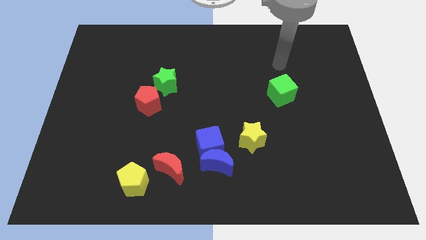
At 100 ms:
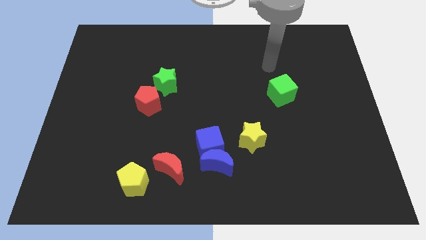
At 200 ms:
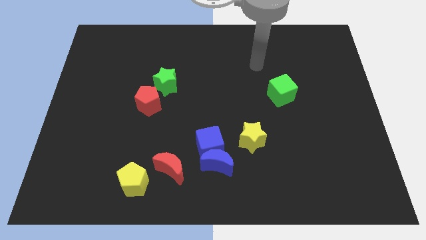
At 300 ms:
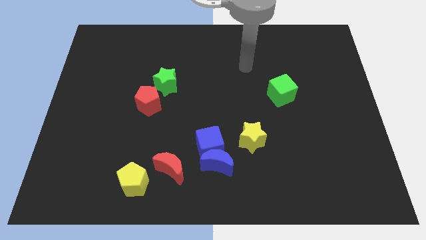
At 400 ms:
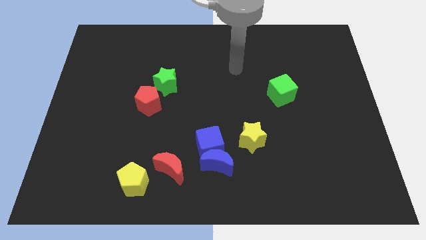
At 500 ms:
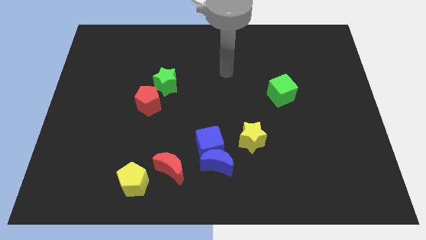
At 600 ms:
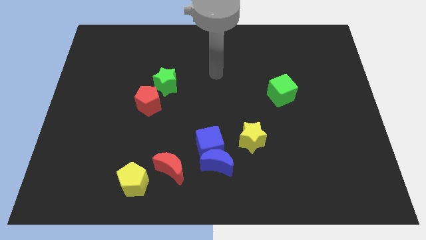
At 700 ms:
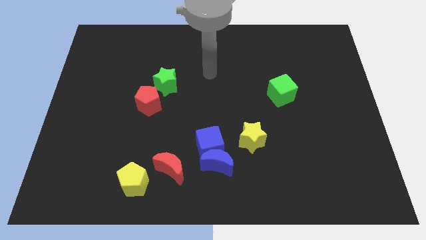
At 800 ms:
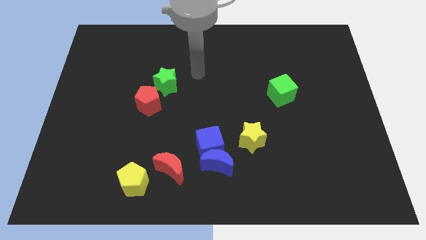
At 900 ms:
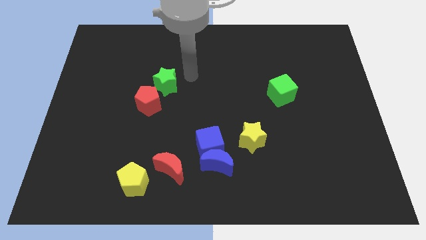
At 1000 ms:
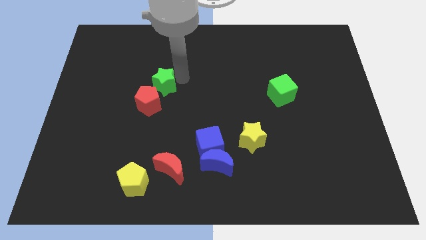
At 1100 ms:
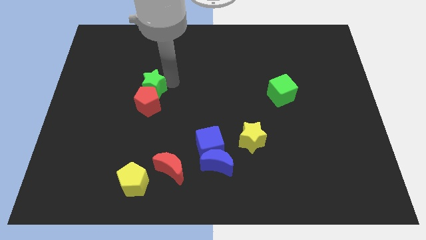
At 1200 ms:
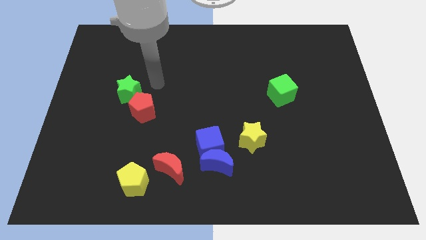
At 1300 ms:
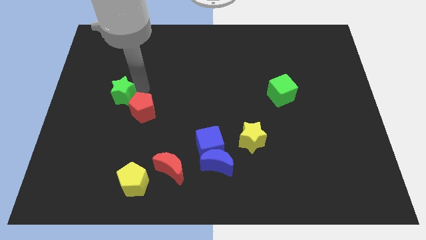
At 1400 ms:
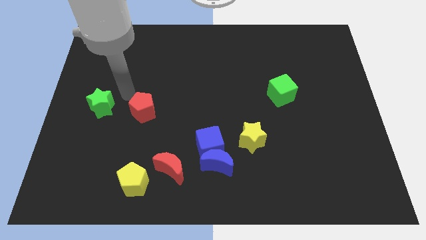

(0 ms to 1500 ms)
pull the red pentagon apart from the green star

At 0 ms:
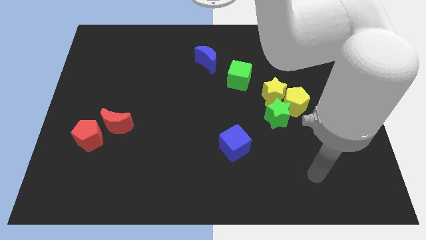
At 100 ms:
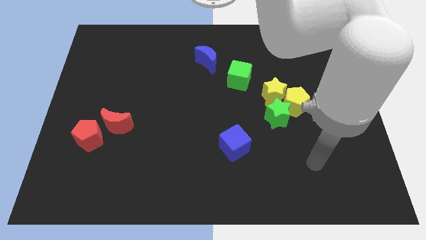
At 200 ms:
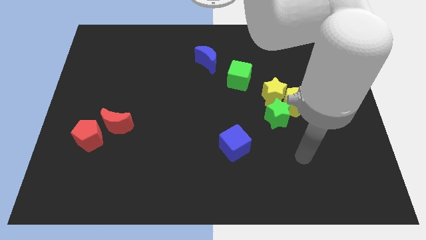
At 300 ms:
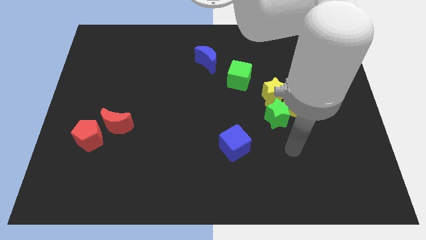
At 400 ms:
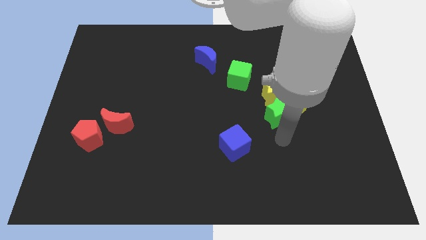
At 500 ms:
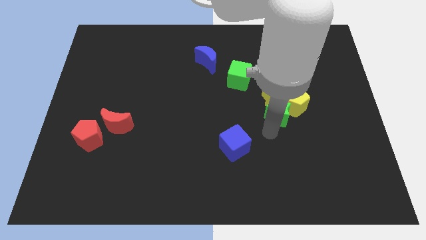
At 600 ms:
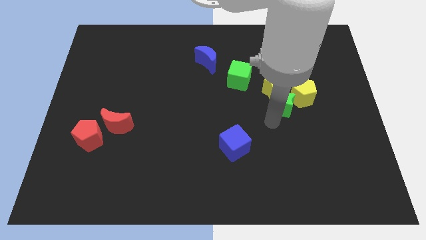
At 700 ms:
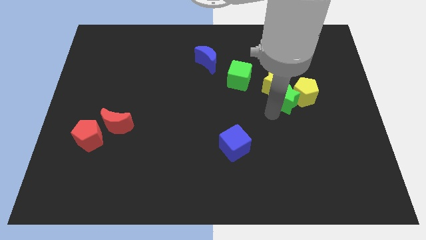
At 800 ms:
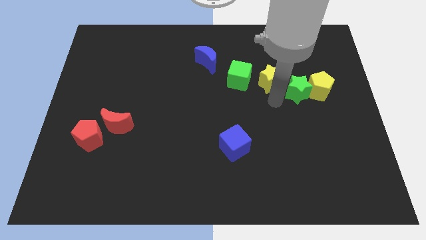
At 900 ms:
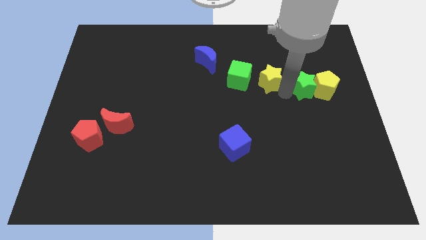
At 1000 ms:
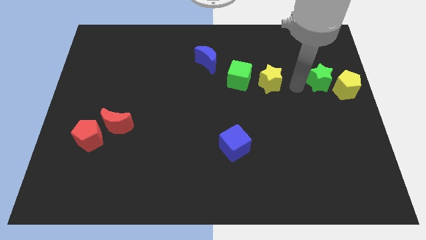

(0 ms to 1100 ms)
separate the yellow pentagon from the yellow star and green star

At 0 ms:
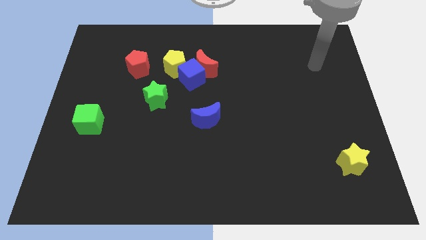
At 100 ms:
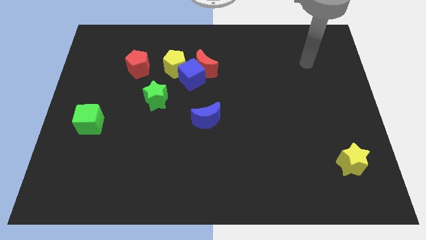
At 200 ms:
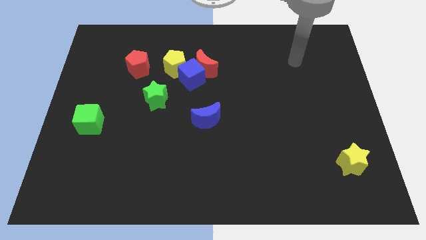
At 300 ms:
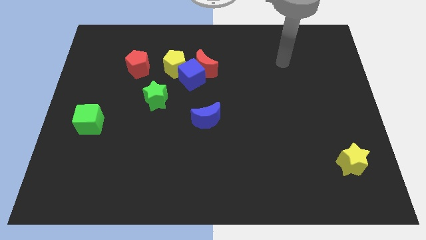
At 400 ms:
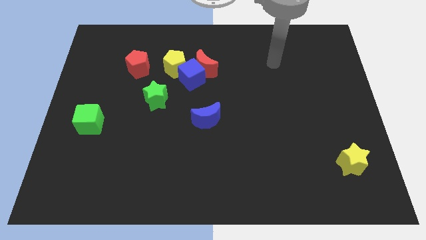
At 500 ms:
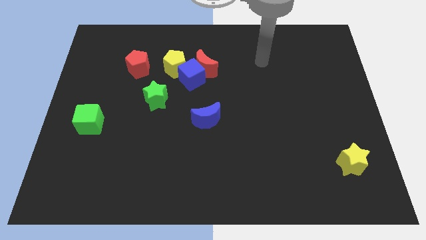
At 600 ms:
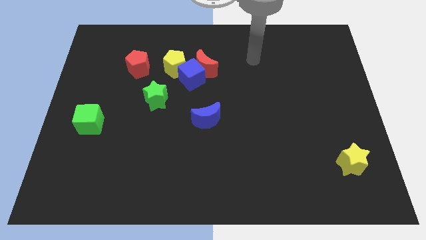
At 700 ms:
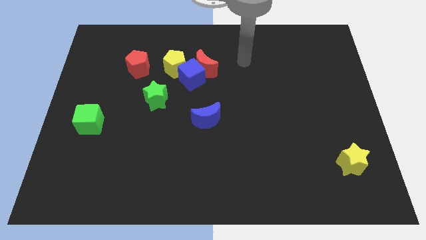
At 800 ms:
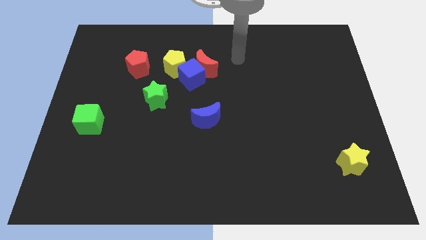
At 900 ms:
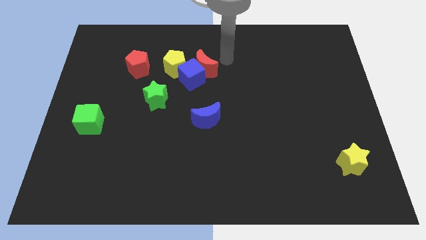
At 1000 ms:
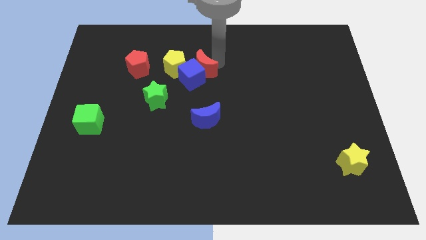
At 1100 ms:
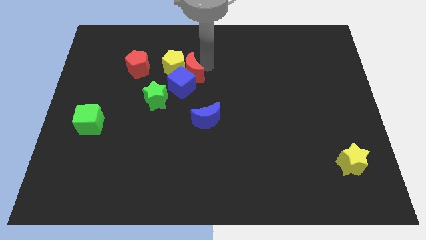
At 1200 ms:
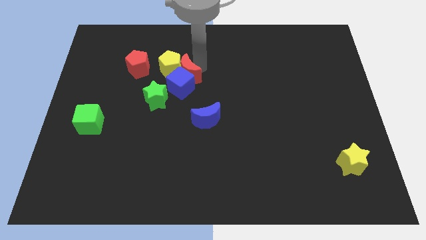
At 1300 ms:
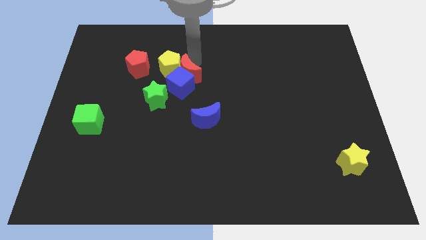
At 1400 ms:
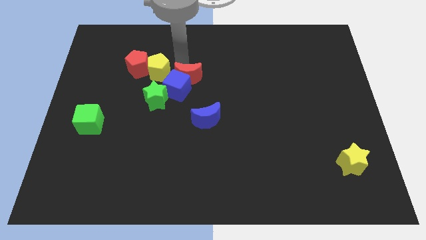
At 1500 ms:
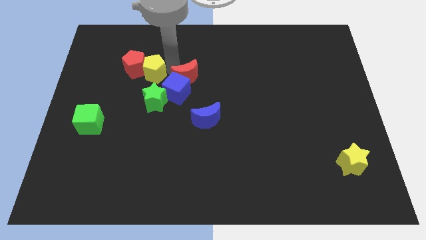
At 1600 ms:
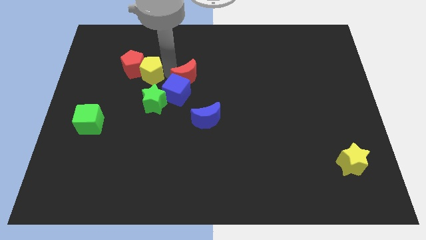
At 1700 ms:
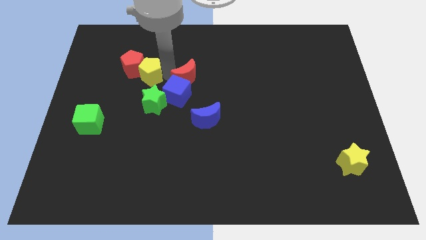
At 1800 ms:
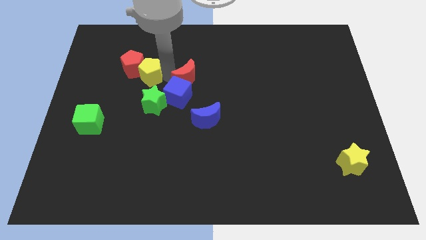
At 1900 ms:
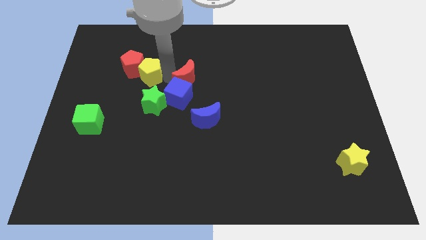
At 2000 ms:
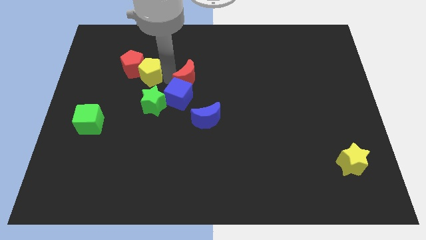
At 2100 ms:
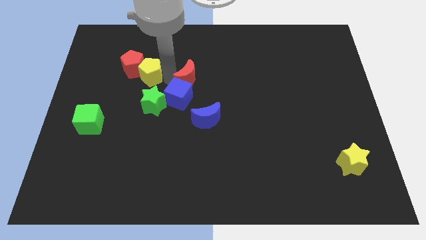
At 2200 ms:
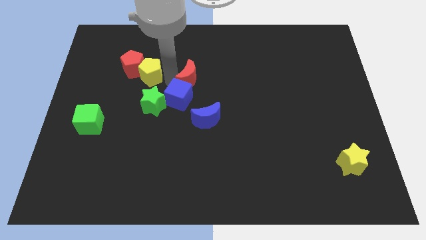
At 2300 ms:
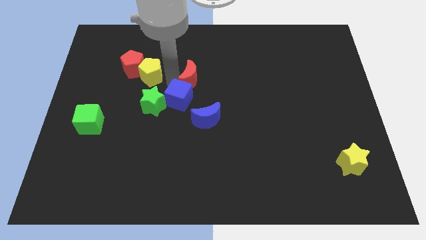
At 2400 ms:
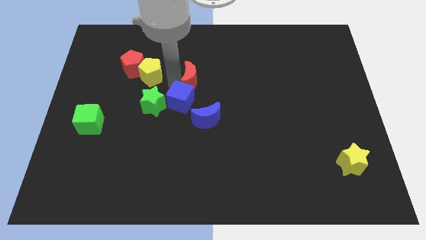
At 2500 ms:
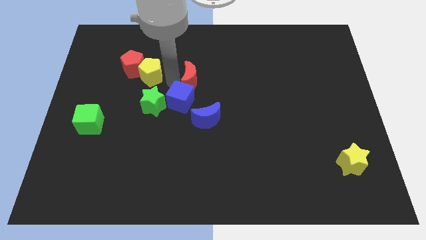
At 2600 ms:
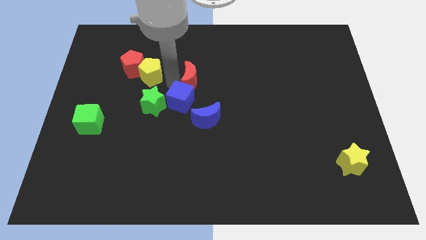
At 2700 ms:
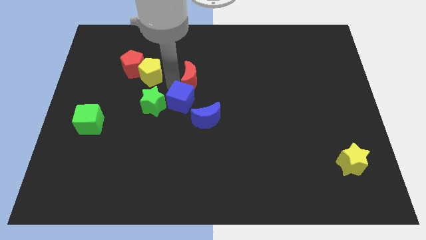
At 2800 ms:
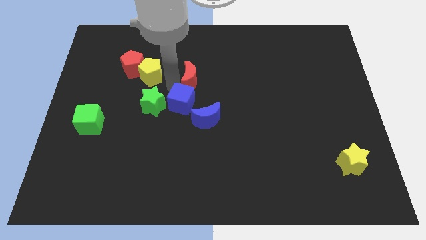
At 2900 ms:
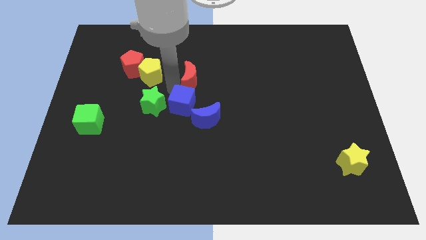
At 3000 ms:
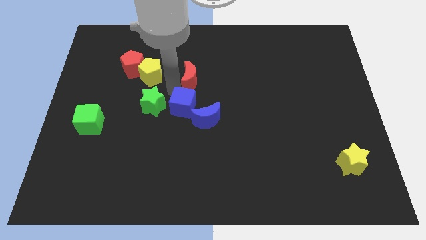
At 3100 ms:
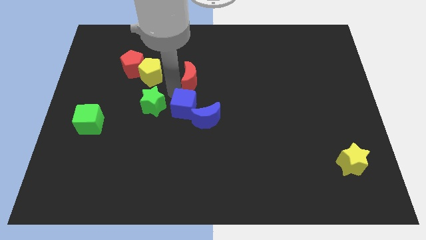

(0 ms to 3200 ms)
move the blue cube away from the red moon and yellow pentagon

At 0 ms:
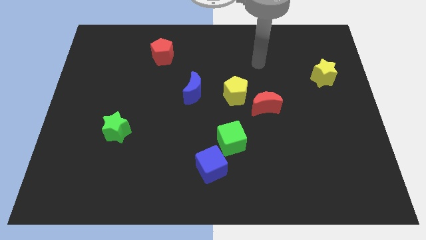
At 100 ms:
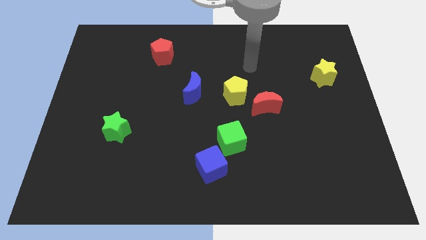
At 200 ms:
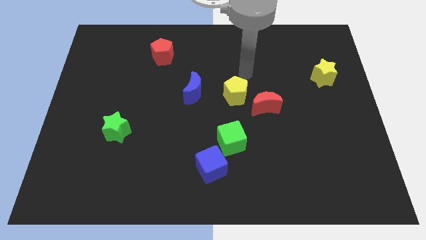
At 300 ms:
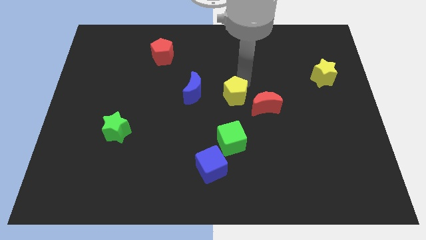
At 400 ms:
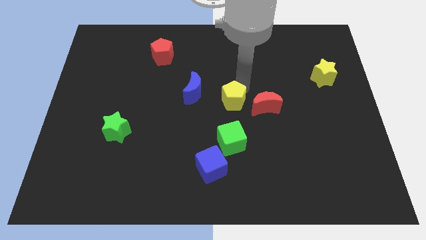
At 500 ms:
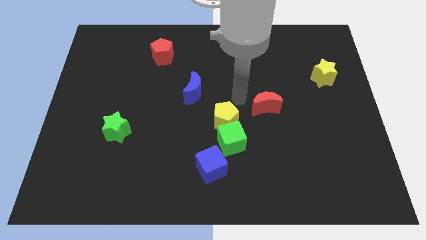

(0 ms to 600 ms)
separate the red moon from the yellow pentagon

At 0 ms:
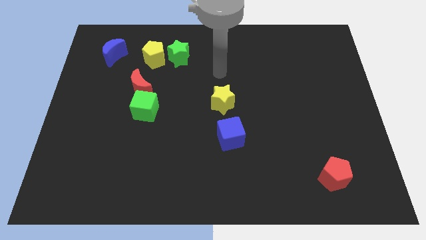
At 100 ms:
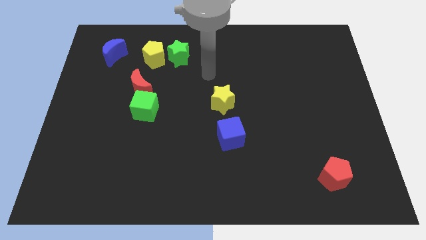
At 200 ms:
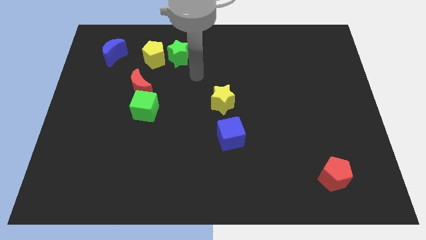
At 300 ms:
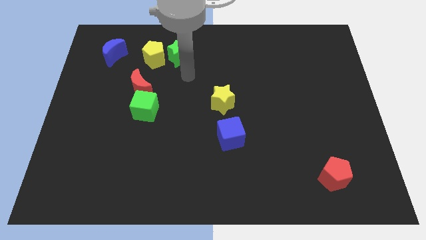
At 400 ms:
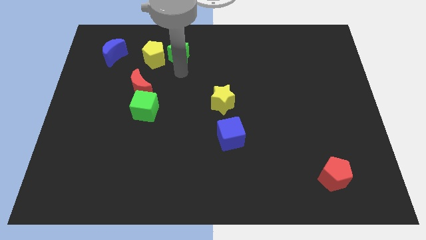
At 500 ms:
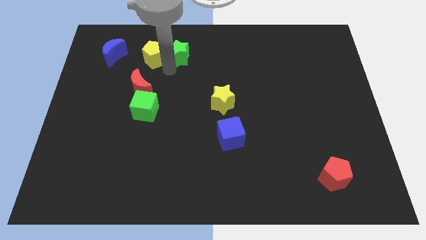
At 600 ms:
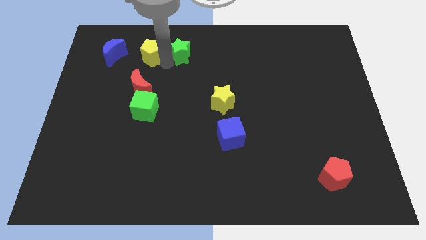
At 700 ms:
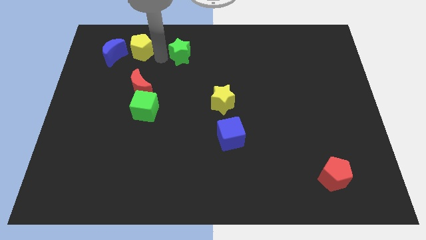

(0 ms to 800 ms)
move the green star away from the yellow pentagon

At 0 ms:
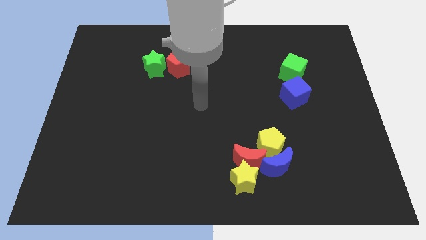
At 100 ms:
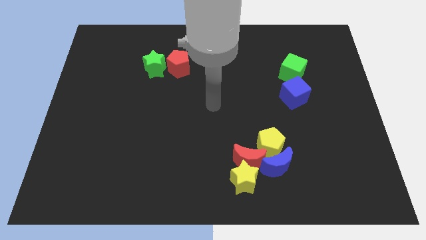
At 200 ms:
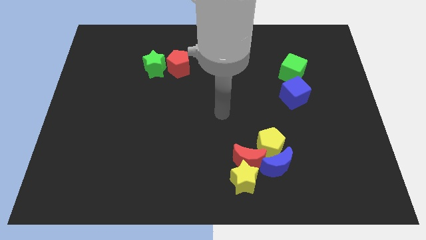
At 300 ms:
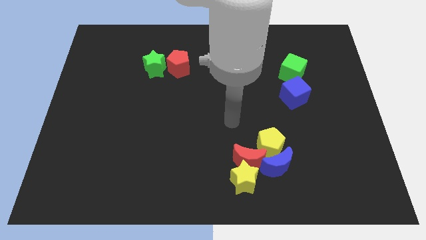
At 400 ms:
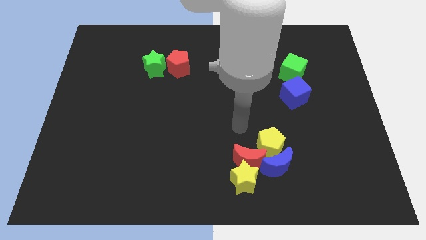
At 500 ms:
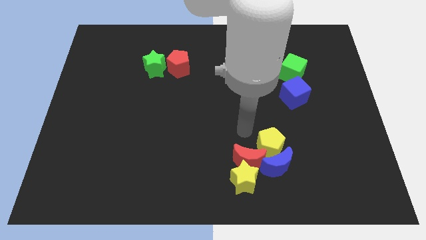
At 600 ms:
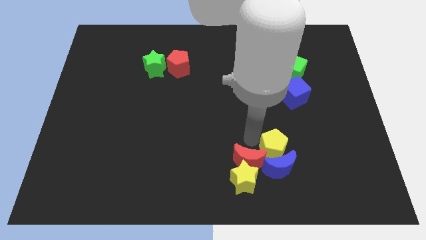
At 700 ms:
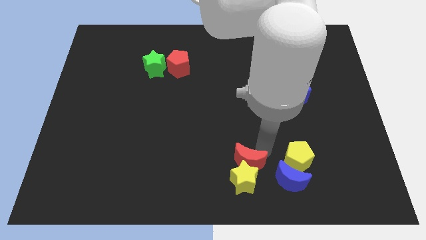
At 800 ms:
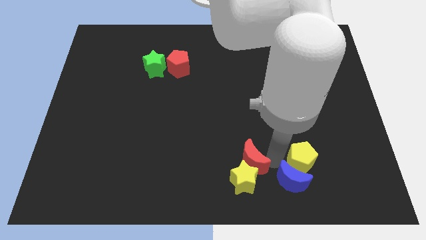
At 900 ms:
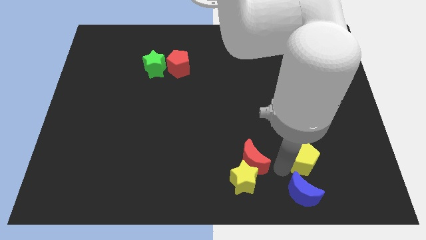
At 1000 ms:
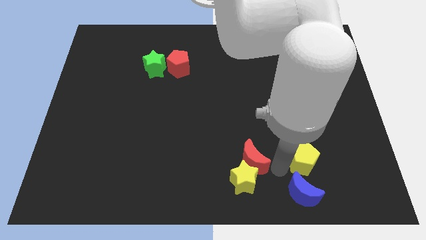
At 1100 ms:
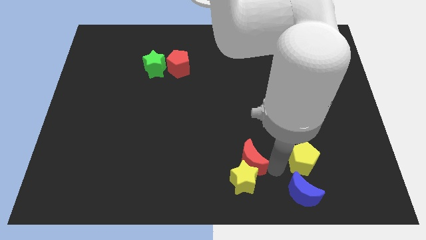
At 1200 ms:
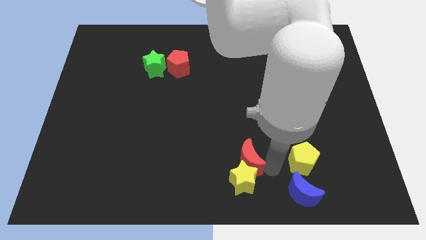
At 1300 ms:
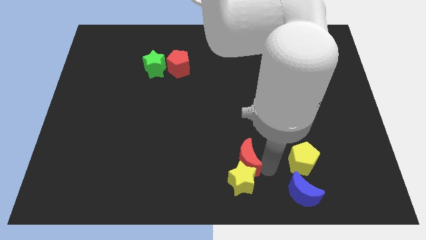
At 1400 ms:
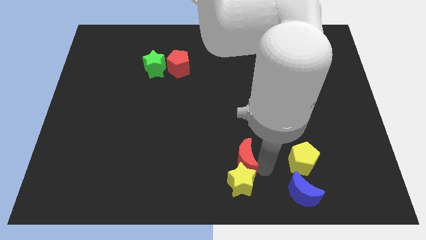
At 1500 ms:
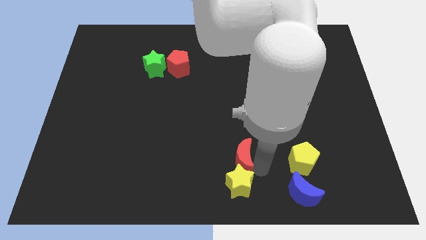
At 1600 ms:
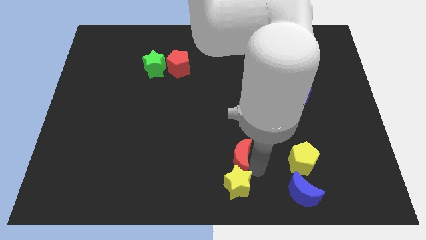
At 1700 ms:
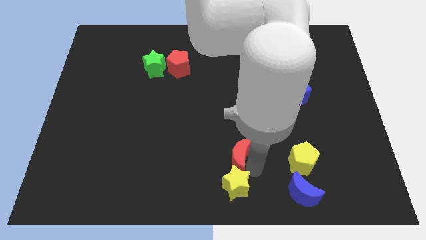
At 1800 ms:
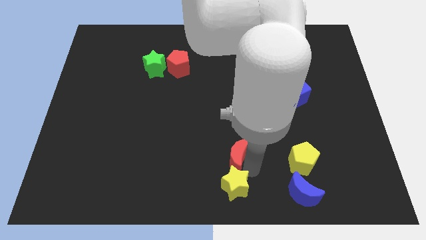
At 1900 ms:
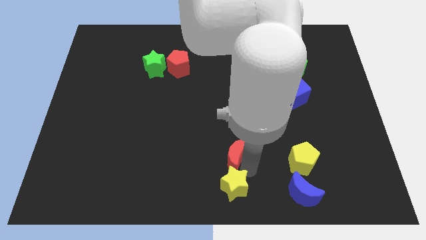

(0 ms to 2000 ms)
separate the red moon from the group

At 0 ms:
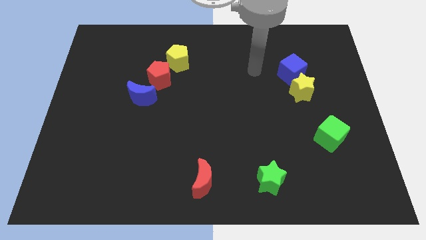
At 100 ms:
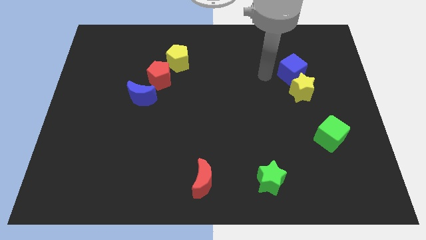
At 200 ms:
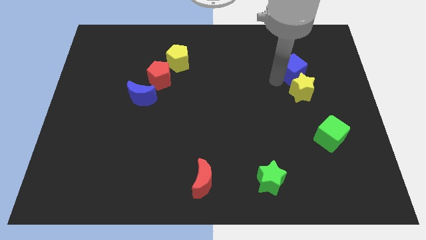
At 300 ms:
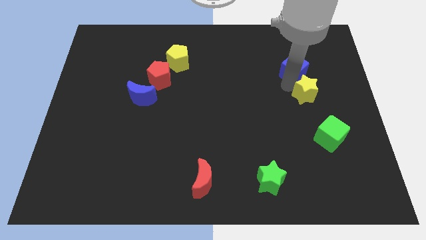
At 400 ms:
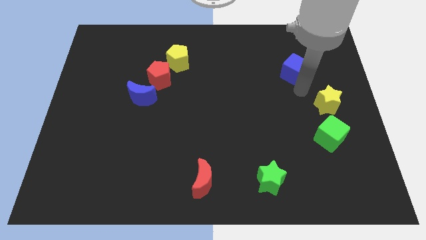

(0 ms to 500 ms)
separate the blue cube from the yellow star
